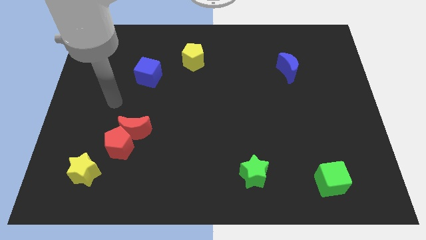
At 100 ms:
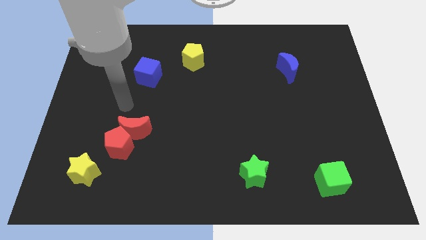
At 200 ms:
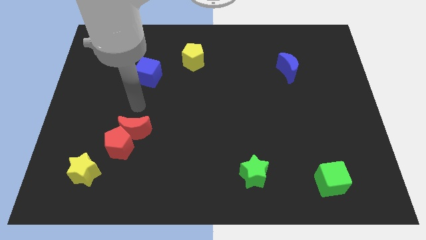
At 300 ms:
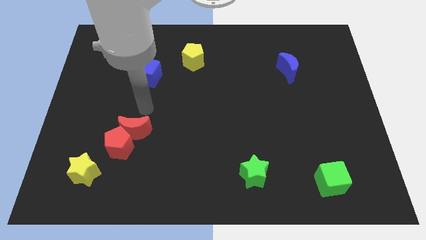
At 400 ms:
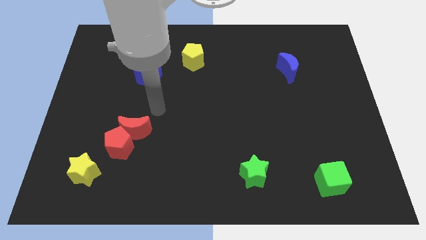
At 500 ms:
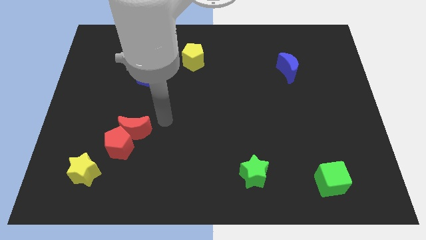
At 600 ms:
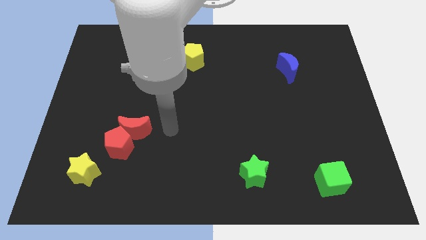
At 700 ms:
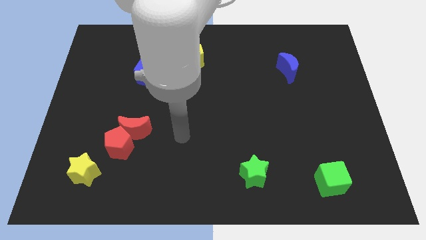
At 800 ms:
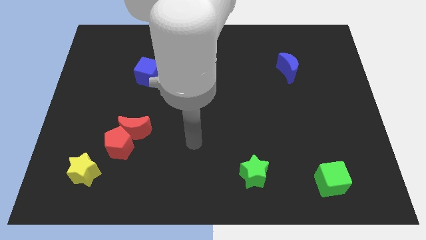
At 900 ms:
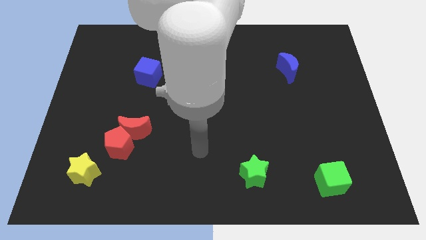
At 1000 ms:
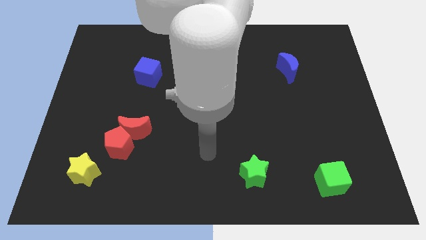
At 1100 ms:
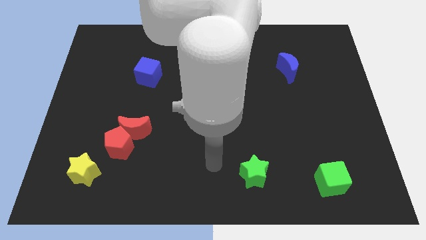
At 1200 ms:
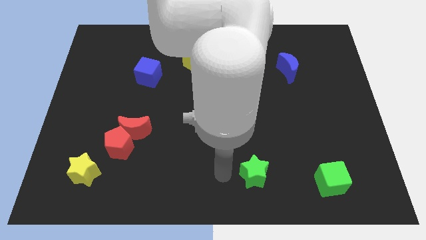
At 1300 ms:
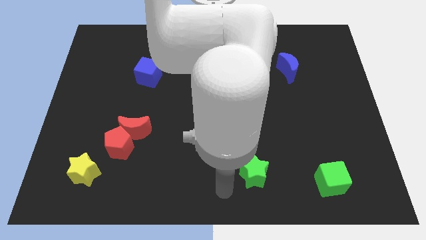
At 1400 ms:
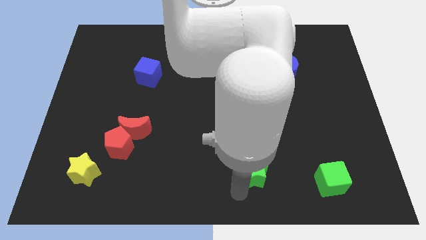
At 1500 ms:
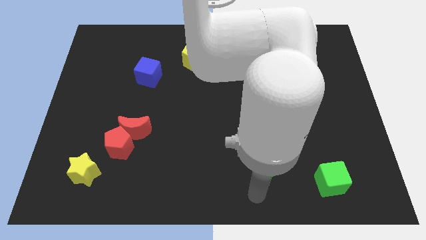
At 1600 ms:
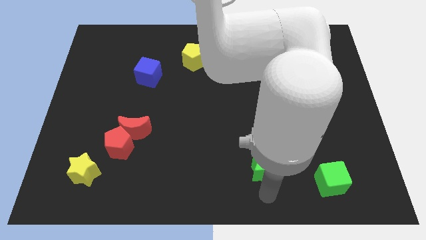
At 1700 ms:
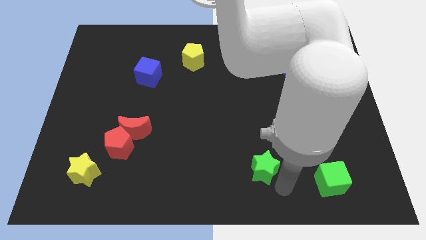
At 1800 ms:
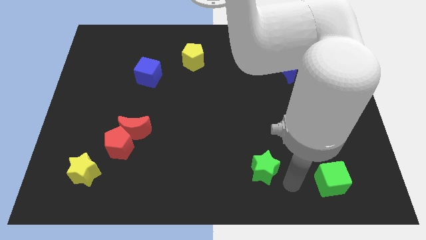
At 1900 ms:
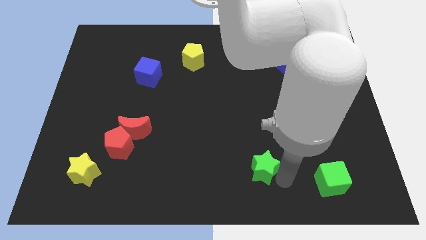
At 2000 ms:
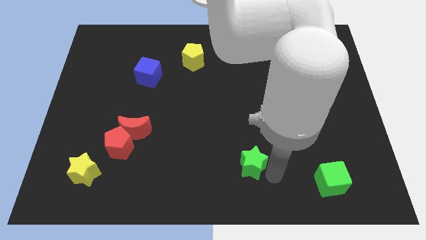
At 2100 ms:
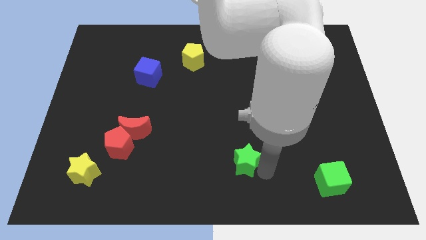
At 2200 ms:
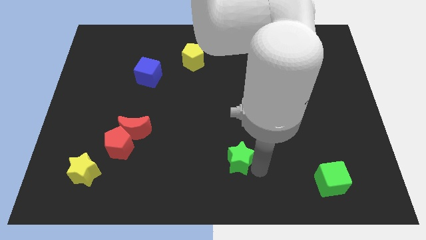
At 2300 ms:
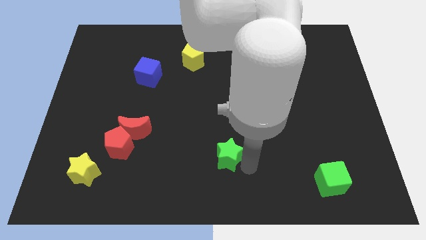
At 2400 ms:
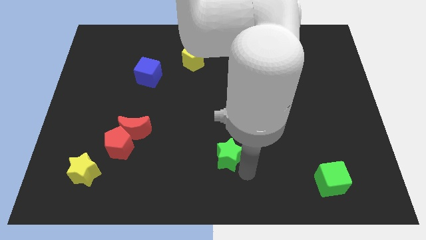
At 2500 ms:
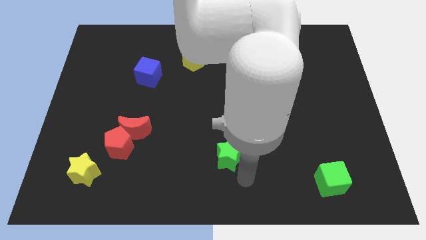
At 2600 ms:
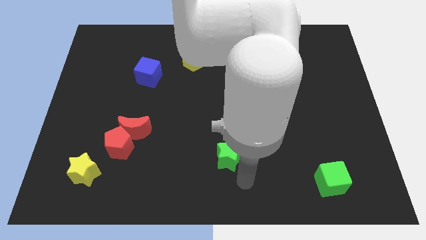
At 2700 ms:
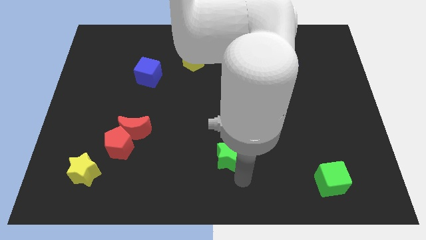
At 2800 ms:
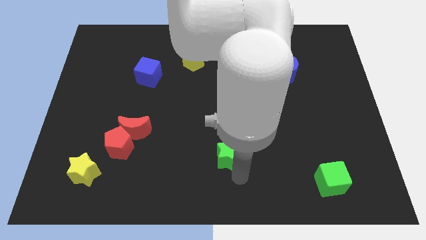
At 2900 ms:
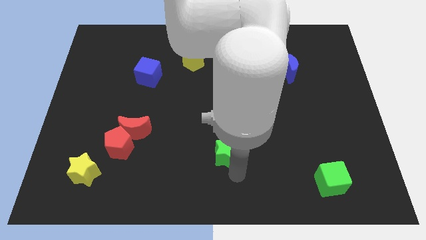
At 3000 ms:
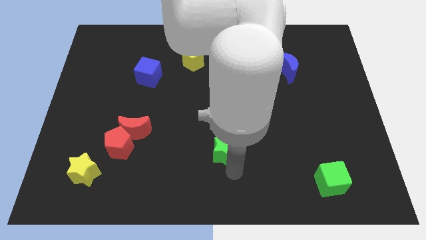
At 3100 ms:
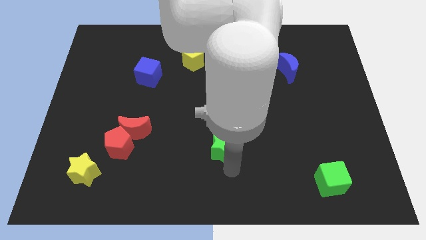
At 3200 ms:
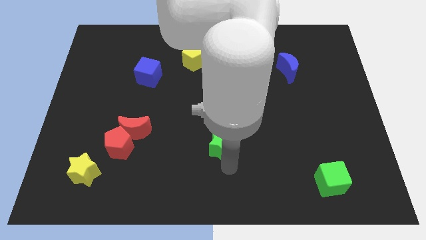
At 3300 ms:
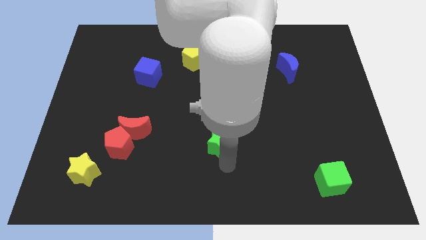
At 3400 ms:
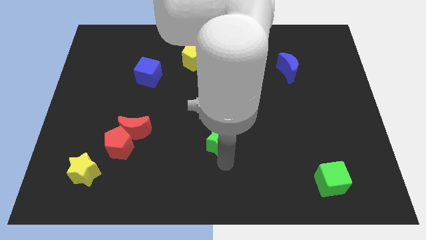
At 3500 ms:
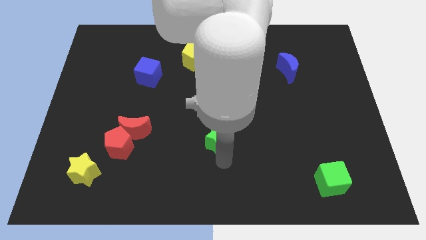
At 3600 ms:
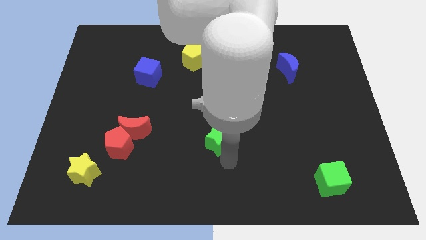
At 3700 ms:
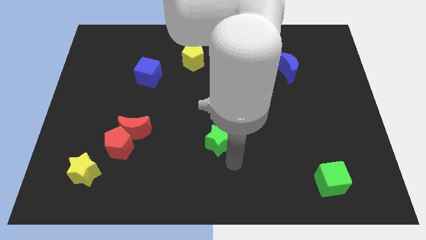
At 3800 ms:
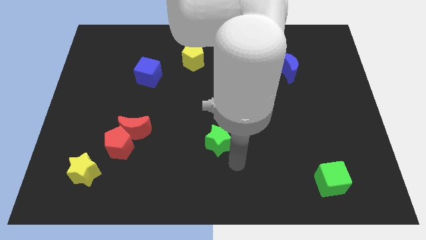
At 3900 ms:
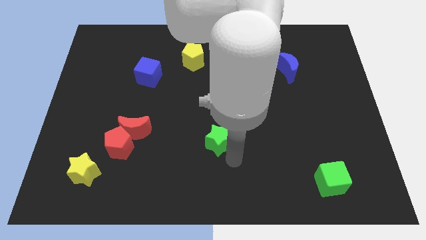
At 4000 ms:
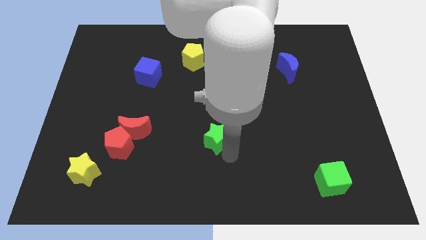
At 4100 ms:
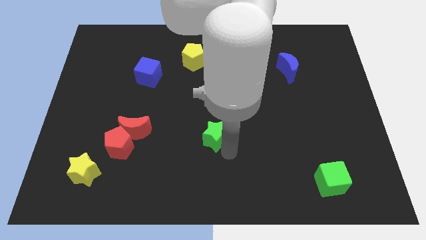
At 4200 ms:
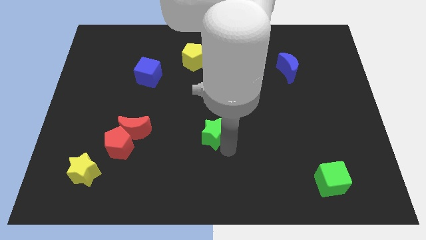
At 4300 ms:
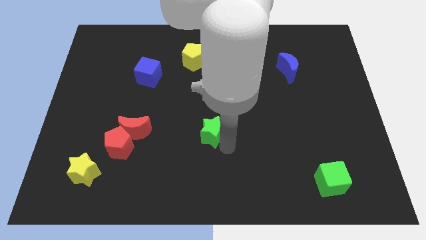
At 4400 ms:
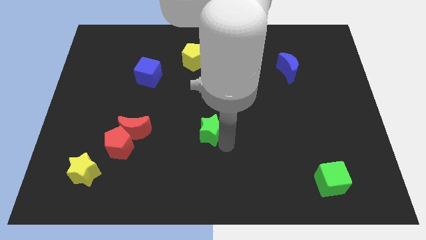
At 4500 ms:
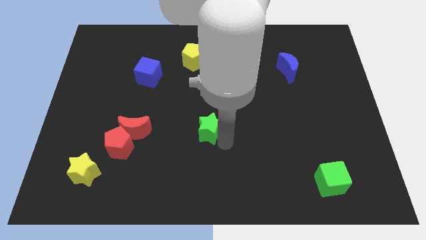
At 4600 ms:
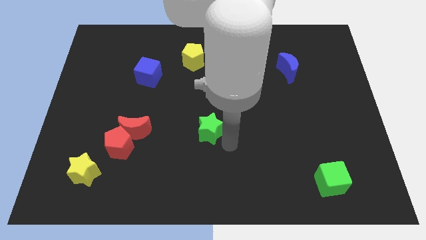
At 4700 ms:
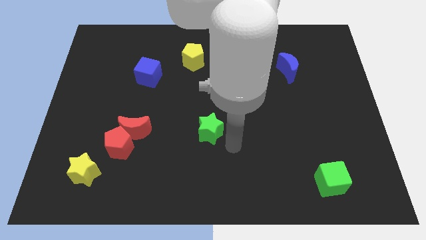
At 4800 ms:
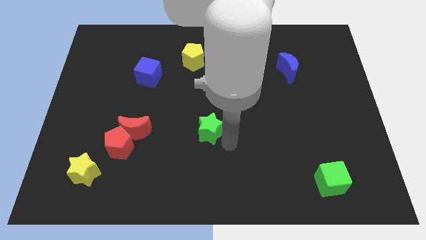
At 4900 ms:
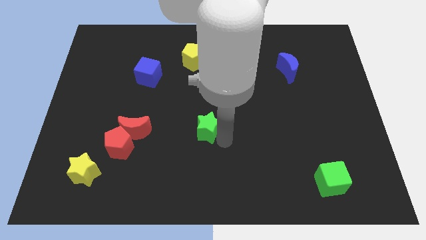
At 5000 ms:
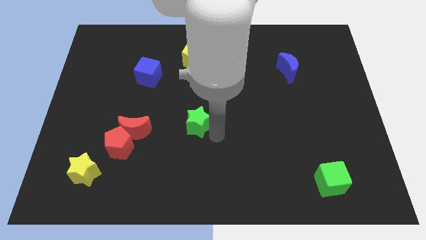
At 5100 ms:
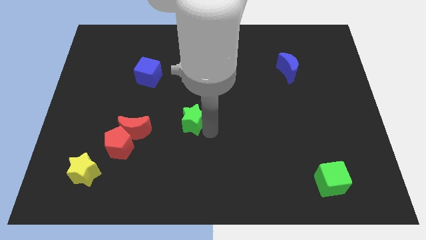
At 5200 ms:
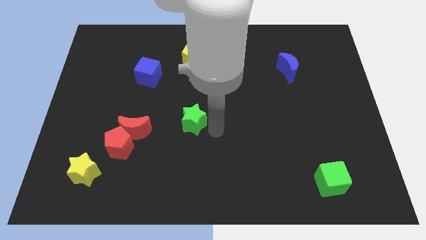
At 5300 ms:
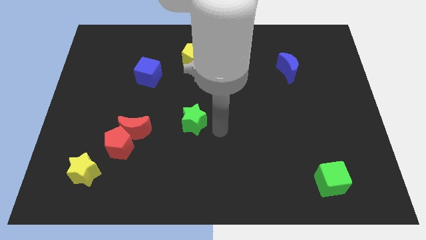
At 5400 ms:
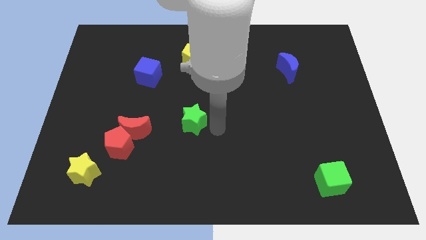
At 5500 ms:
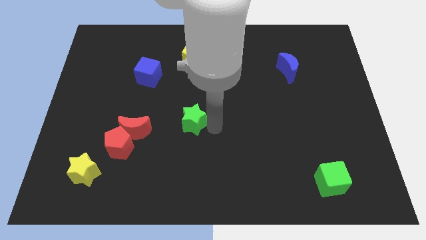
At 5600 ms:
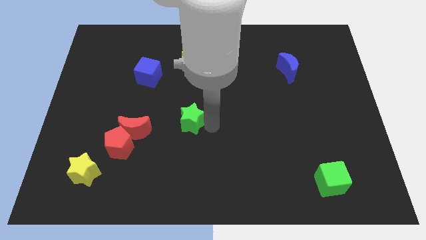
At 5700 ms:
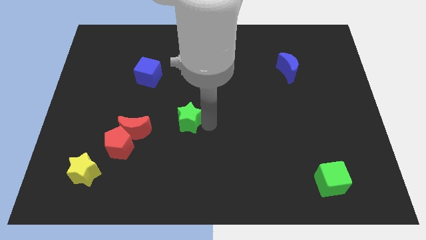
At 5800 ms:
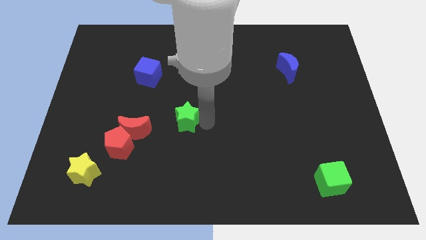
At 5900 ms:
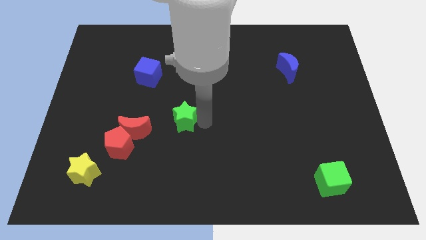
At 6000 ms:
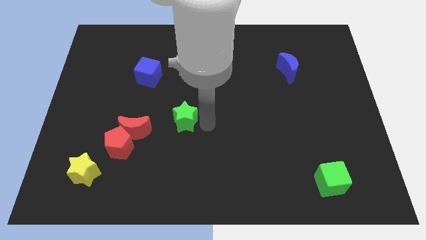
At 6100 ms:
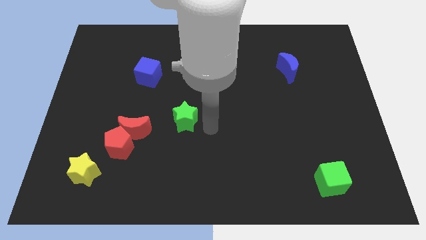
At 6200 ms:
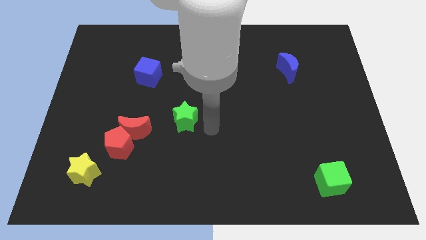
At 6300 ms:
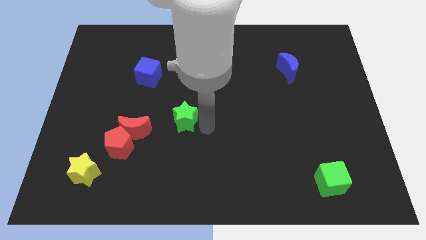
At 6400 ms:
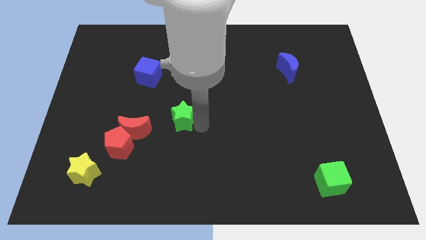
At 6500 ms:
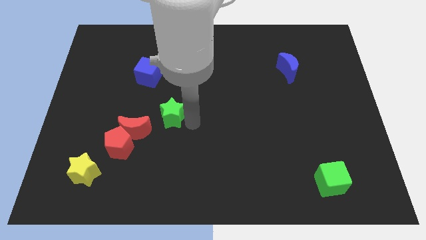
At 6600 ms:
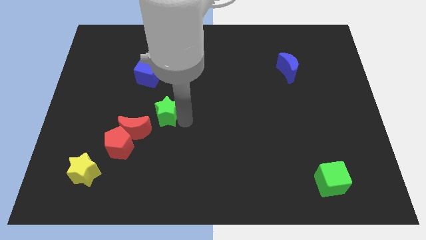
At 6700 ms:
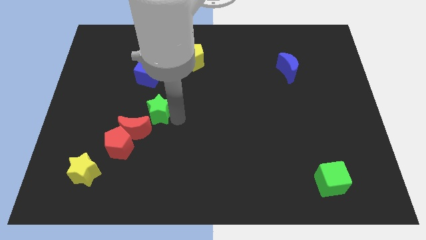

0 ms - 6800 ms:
push the green star to the bottom of the blue cube

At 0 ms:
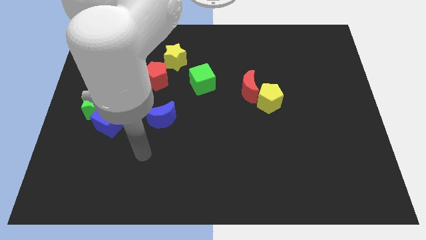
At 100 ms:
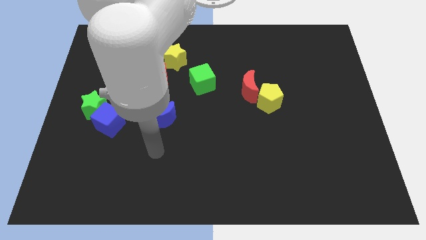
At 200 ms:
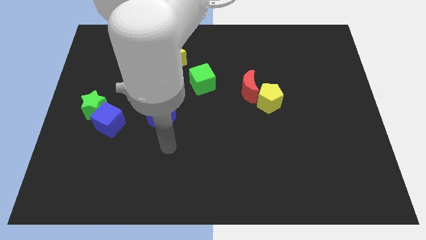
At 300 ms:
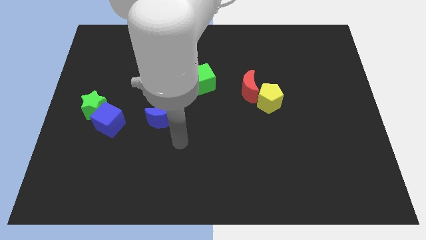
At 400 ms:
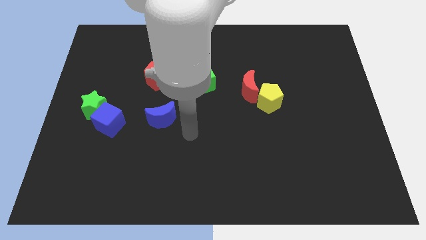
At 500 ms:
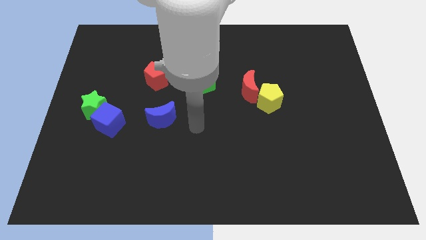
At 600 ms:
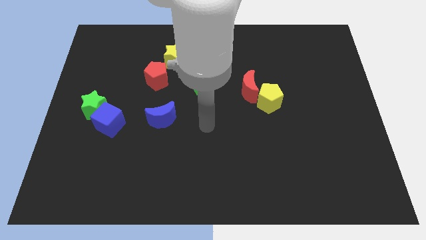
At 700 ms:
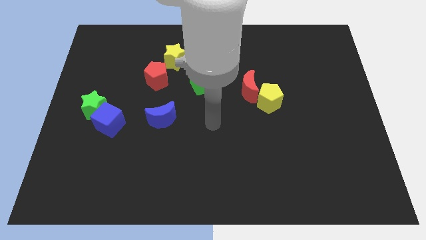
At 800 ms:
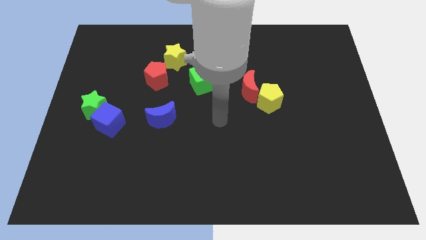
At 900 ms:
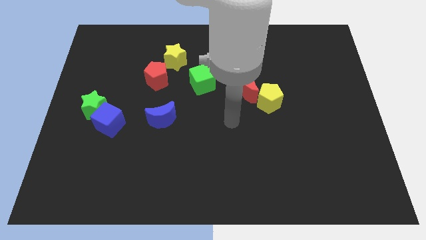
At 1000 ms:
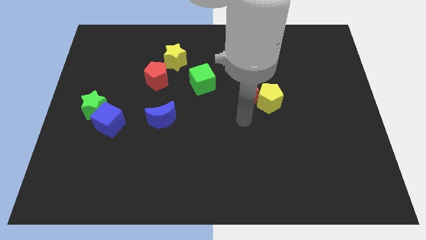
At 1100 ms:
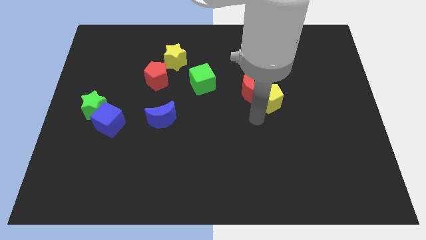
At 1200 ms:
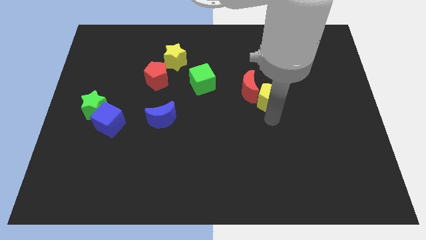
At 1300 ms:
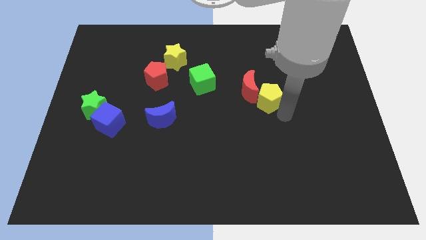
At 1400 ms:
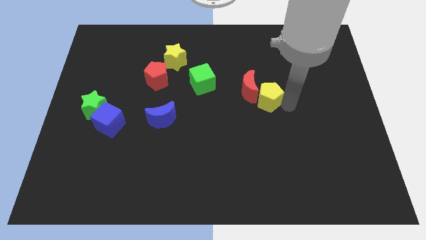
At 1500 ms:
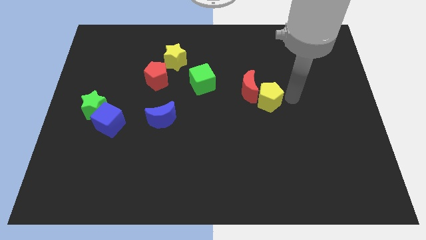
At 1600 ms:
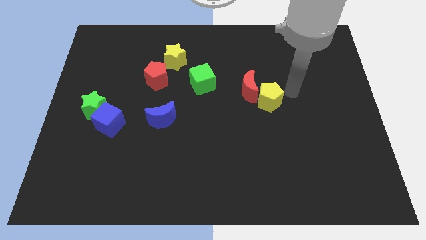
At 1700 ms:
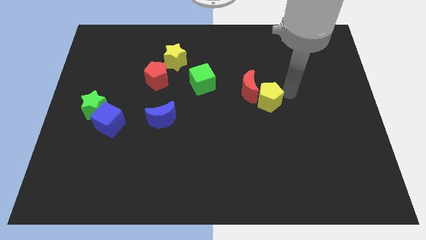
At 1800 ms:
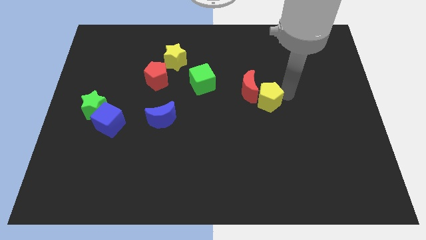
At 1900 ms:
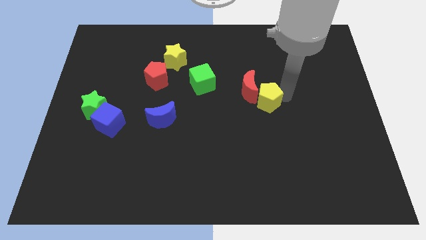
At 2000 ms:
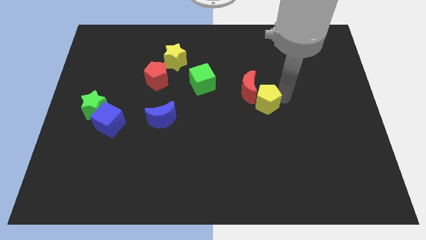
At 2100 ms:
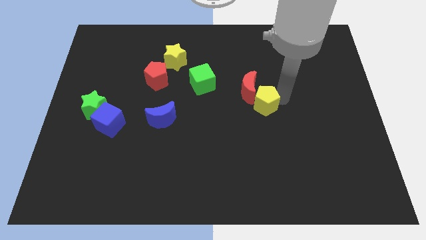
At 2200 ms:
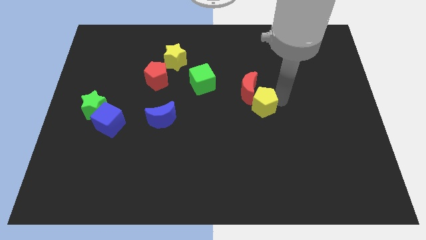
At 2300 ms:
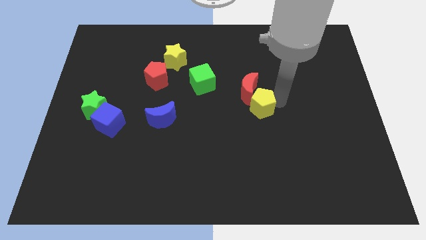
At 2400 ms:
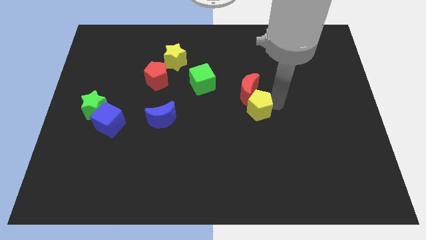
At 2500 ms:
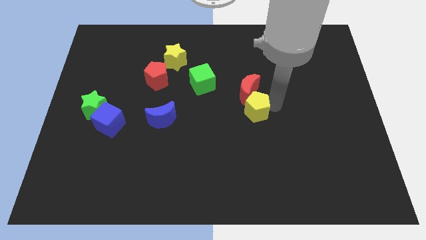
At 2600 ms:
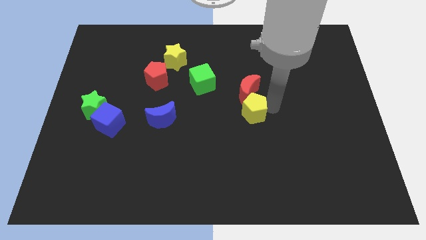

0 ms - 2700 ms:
put the yellow pentagon diagonally down and to the left of the red moon
